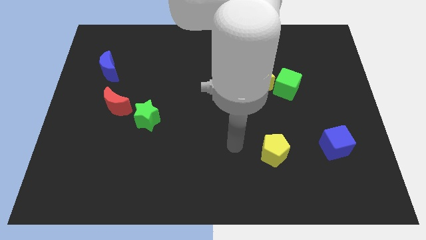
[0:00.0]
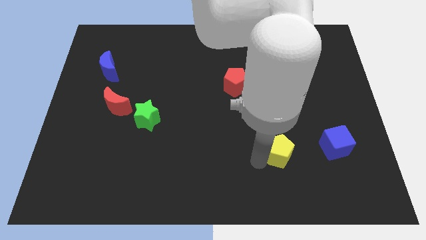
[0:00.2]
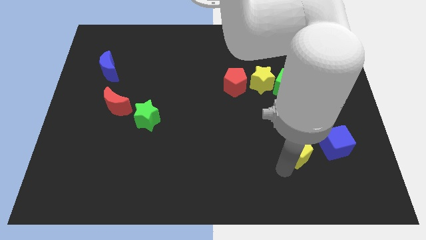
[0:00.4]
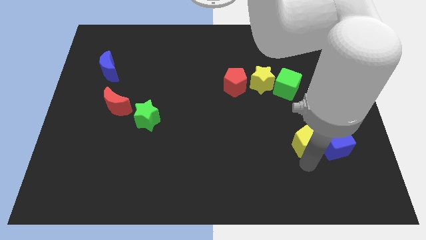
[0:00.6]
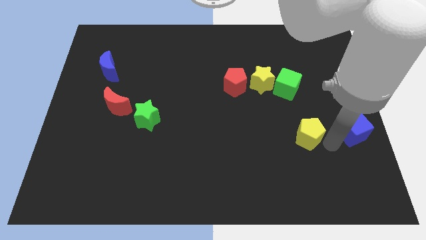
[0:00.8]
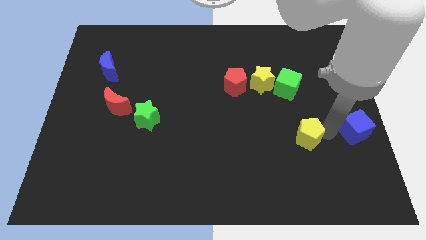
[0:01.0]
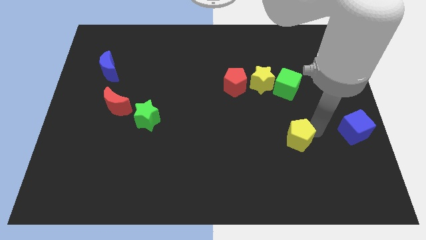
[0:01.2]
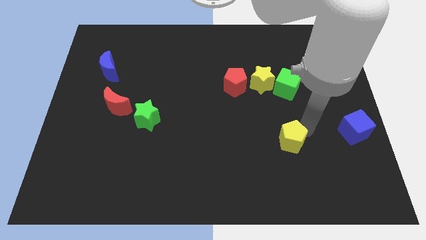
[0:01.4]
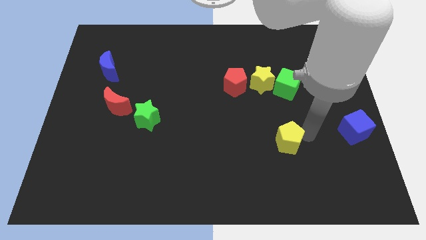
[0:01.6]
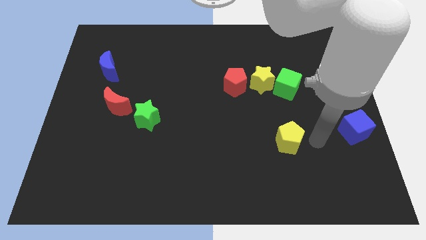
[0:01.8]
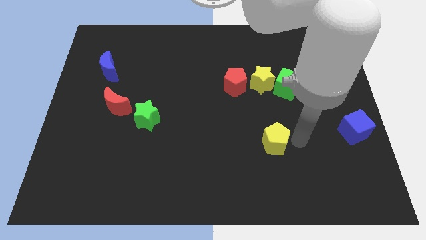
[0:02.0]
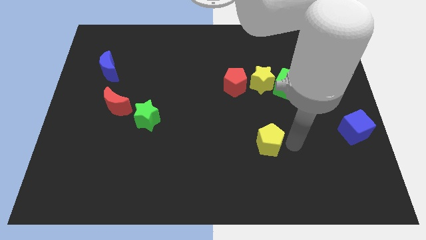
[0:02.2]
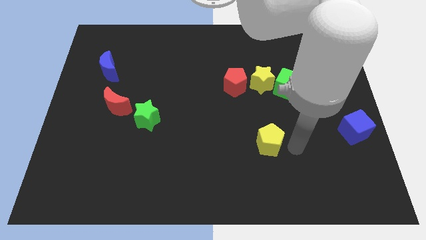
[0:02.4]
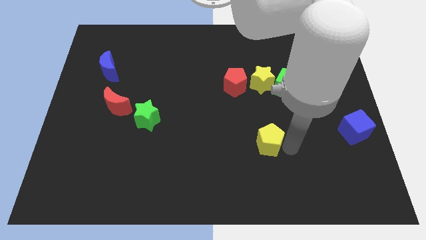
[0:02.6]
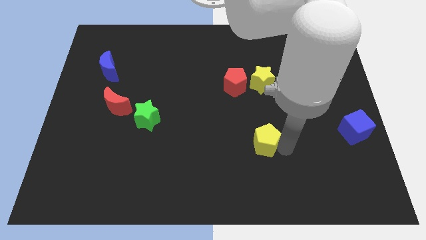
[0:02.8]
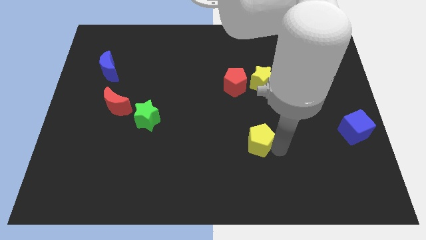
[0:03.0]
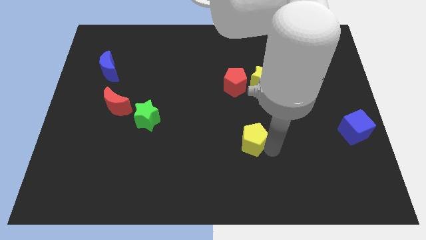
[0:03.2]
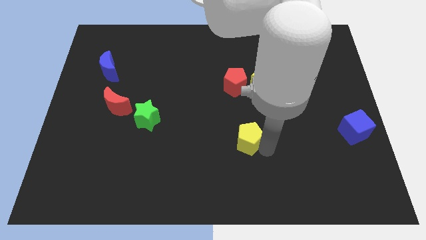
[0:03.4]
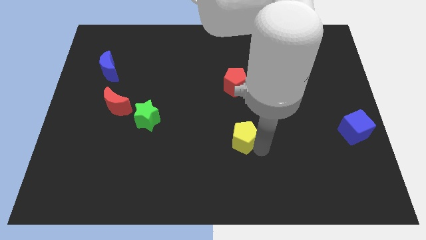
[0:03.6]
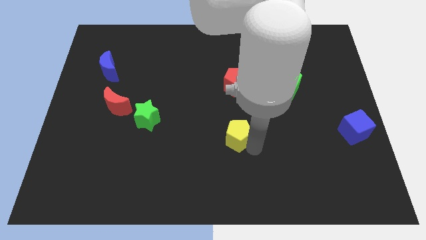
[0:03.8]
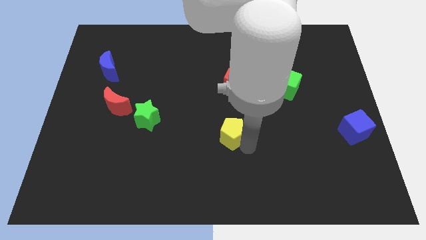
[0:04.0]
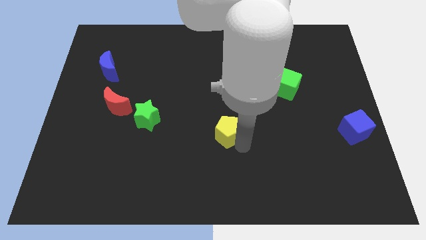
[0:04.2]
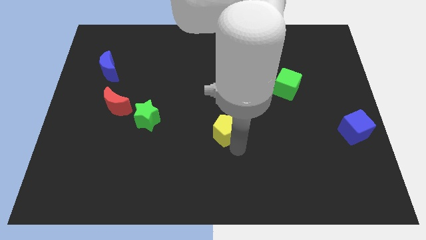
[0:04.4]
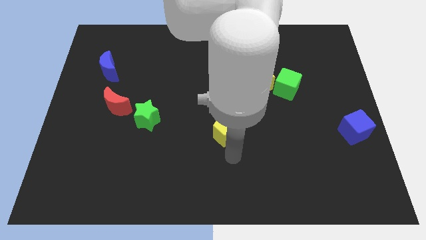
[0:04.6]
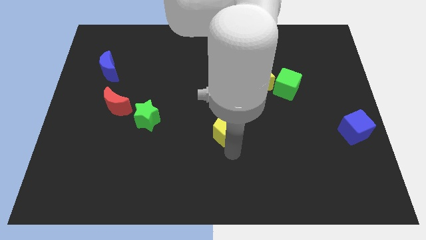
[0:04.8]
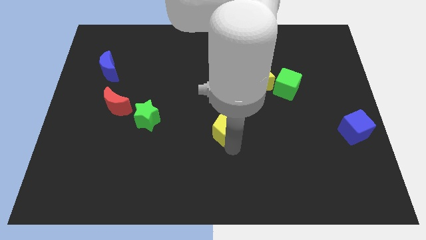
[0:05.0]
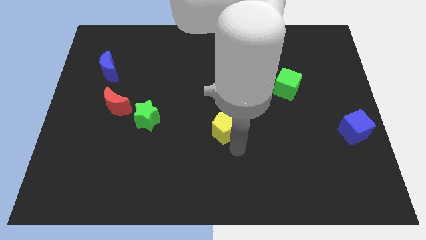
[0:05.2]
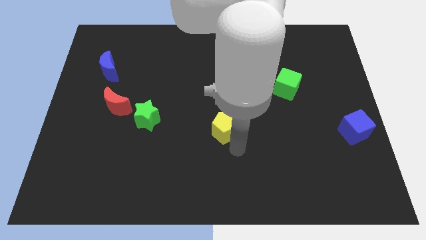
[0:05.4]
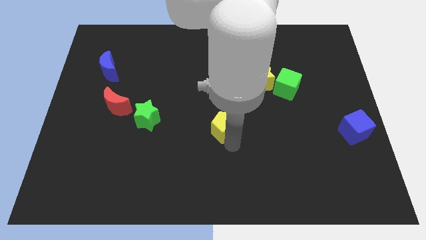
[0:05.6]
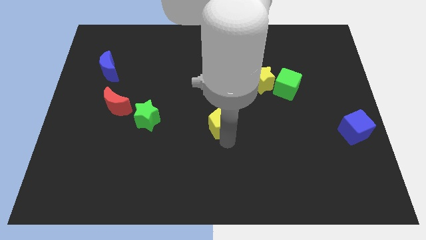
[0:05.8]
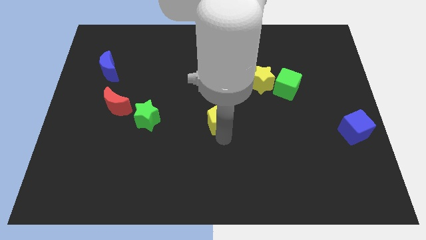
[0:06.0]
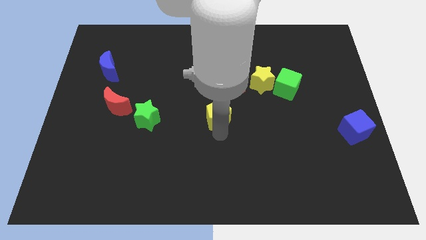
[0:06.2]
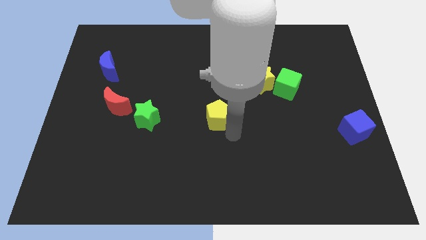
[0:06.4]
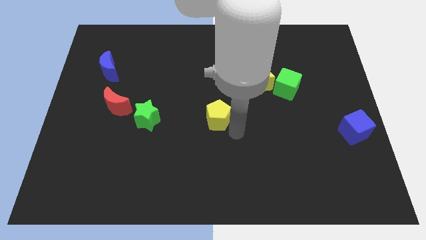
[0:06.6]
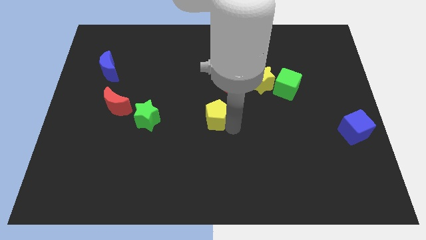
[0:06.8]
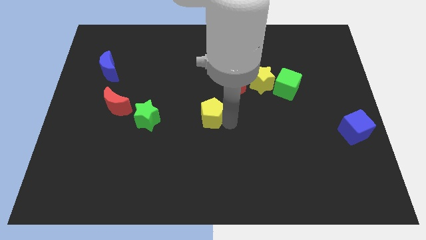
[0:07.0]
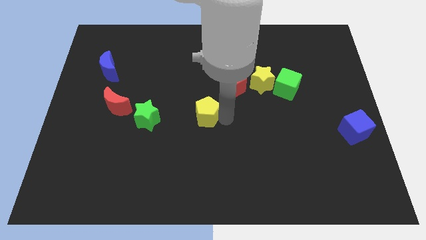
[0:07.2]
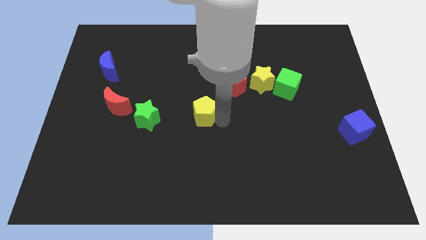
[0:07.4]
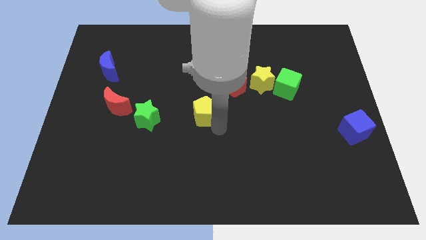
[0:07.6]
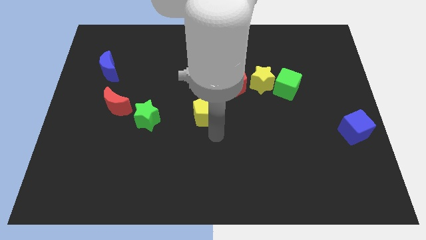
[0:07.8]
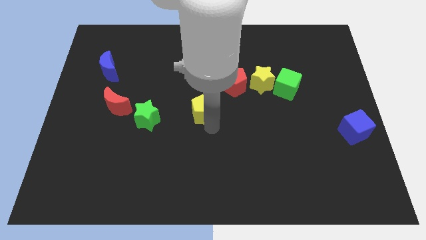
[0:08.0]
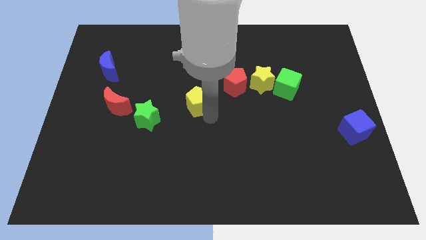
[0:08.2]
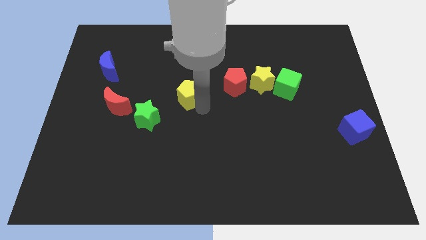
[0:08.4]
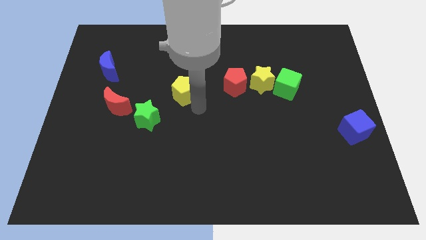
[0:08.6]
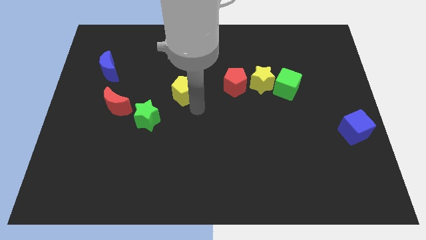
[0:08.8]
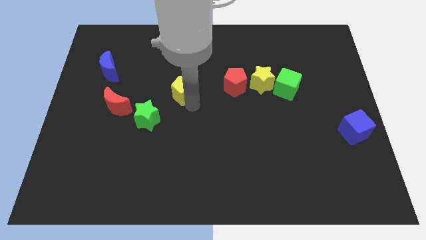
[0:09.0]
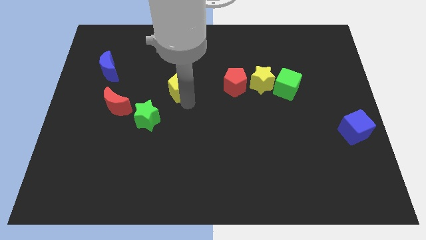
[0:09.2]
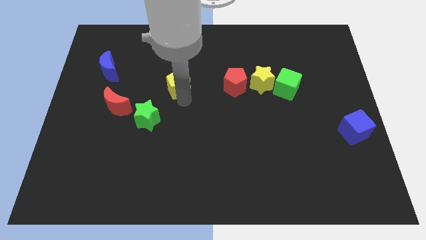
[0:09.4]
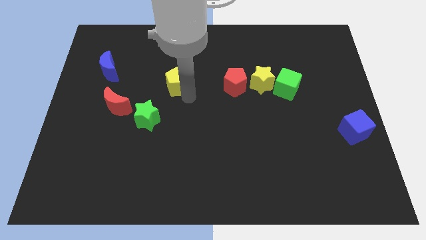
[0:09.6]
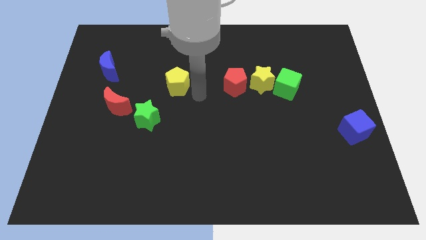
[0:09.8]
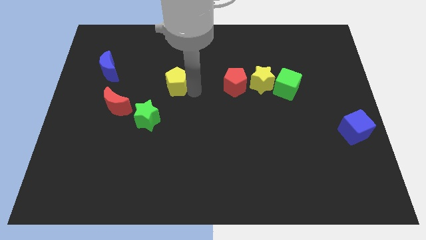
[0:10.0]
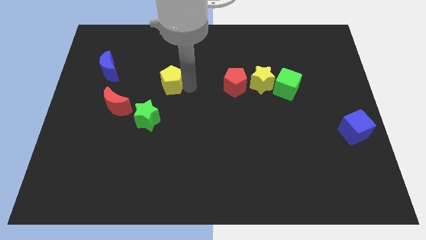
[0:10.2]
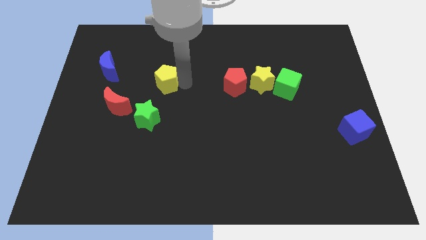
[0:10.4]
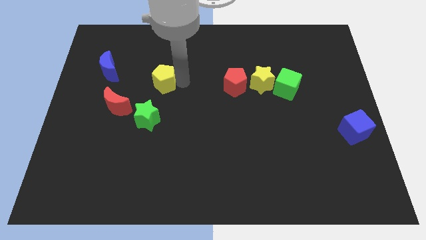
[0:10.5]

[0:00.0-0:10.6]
push the yellow pentagon to the right of the blue moon

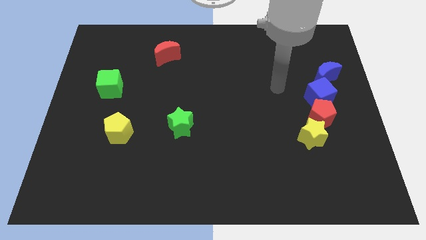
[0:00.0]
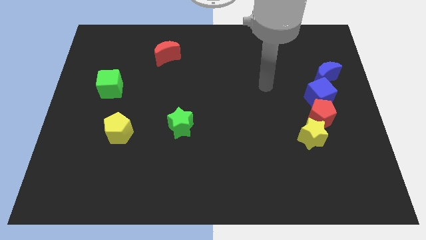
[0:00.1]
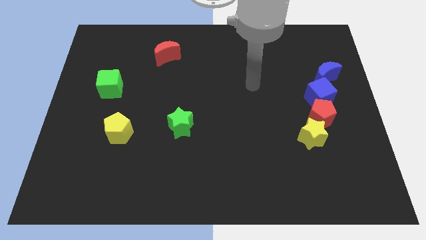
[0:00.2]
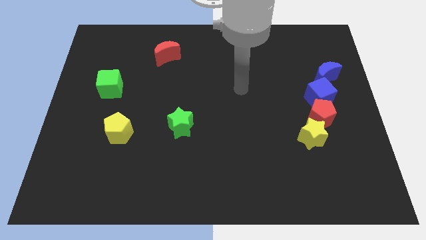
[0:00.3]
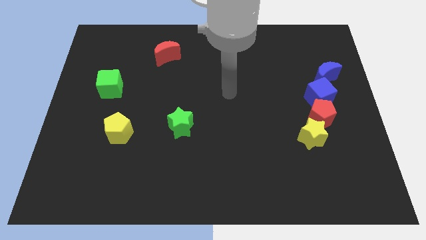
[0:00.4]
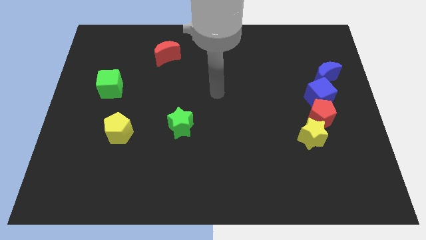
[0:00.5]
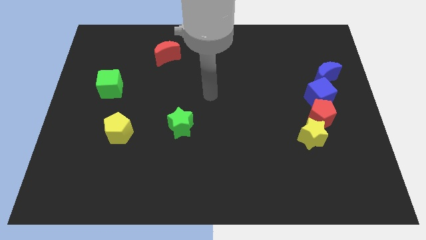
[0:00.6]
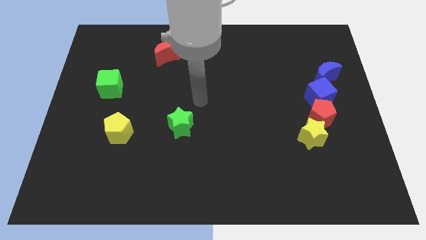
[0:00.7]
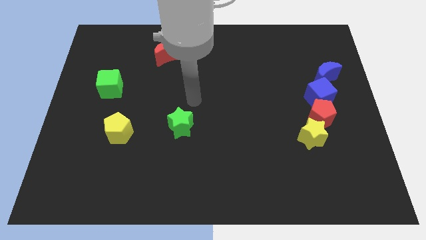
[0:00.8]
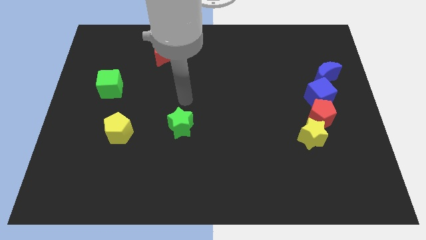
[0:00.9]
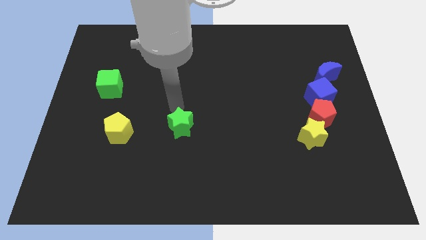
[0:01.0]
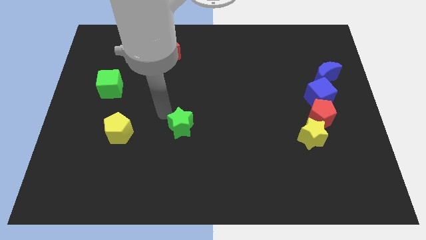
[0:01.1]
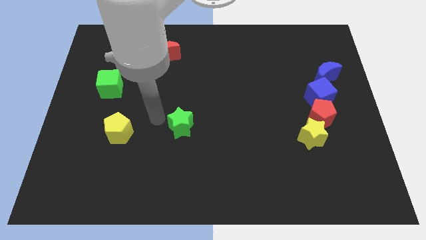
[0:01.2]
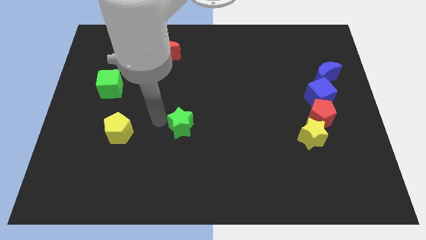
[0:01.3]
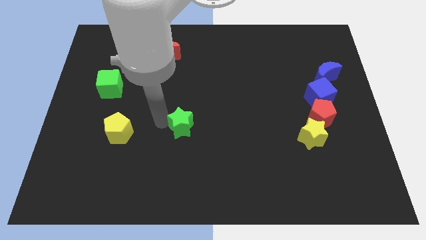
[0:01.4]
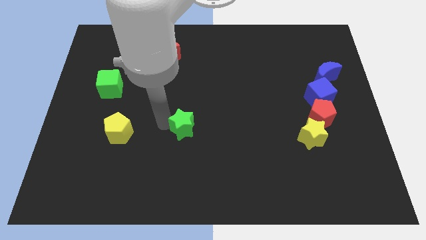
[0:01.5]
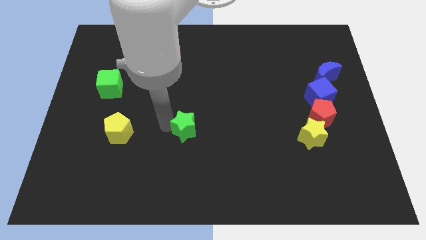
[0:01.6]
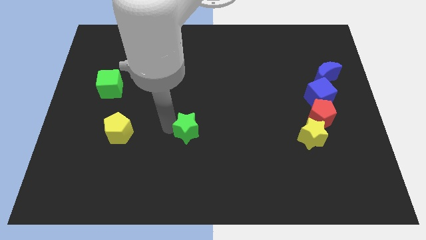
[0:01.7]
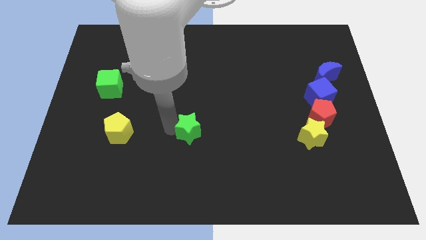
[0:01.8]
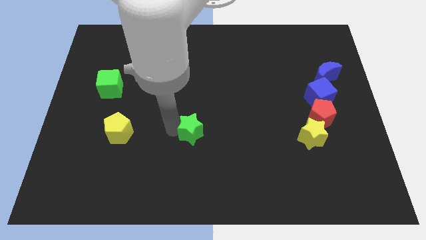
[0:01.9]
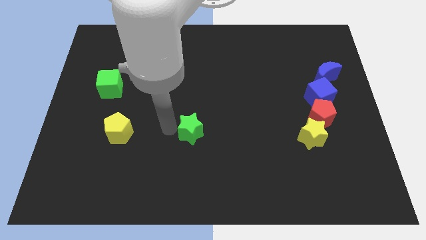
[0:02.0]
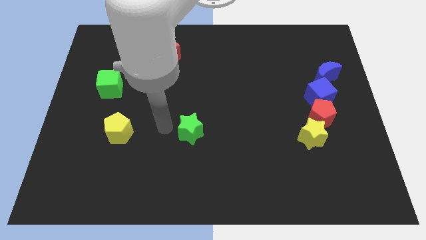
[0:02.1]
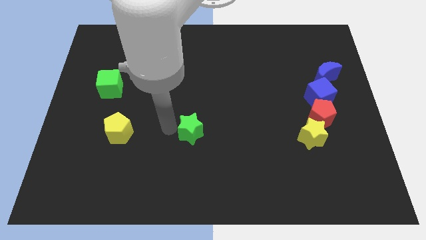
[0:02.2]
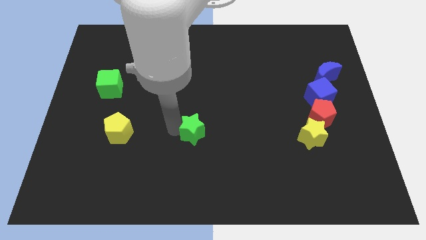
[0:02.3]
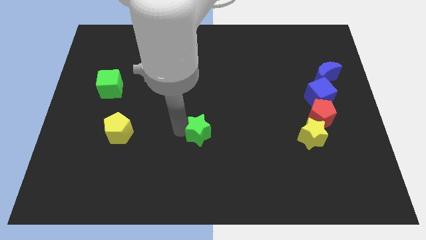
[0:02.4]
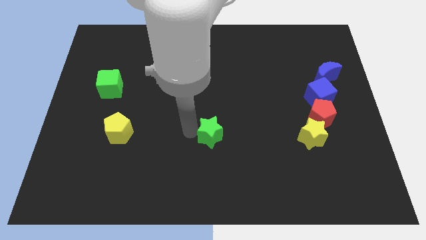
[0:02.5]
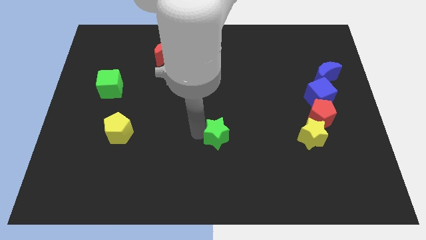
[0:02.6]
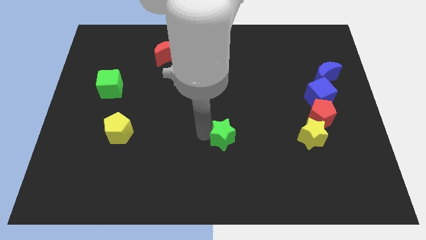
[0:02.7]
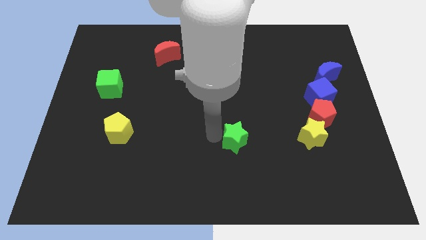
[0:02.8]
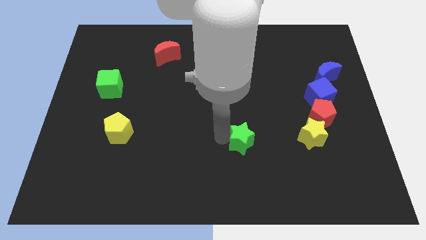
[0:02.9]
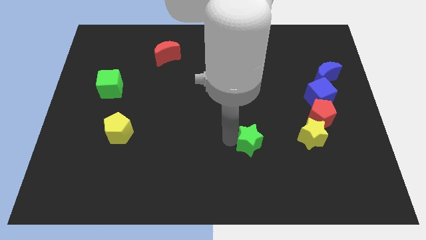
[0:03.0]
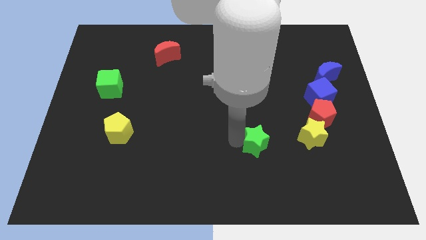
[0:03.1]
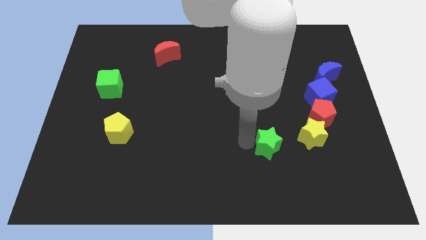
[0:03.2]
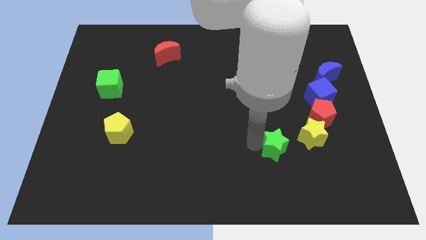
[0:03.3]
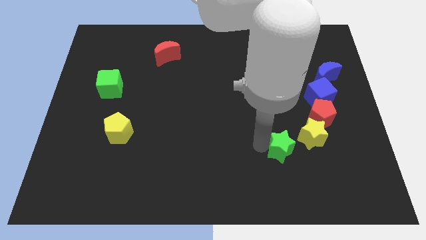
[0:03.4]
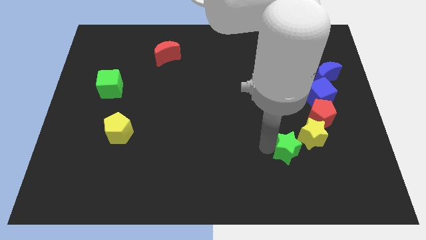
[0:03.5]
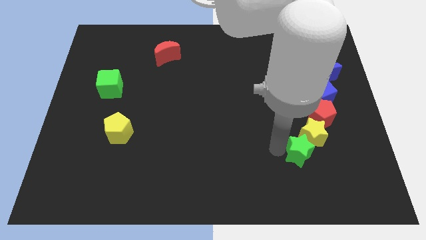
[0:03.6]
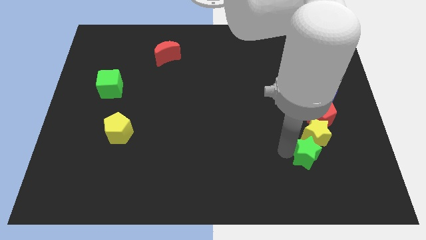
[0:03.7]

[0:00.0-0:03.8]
slide the green star to the bottom side of the red pentagon
